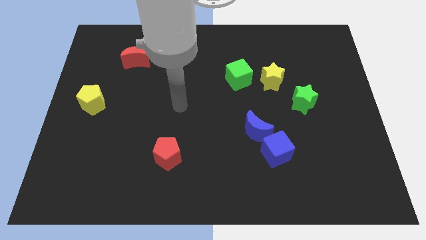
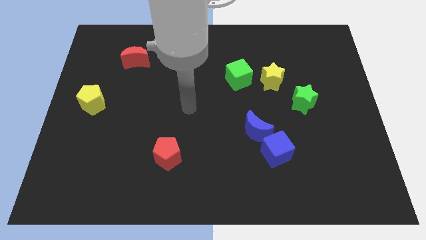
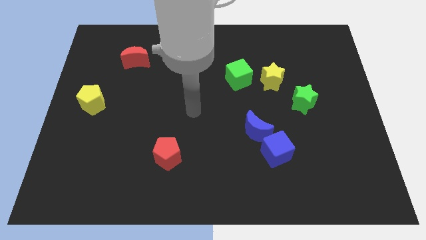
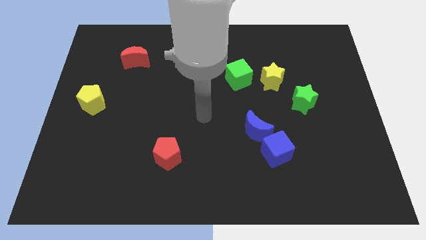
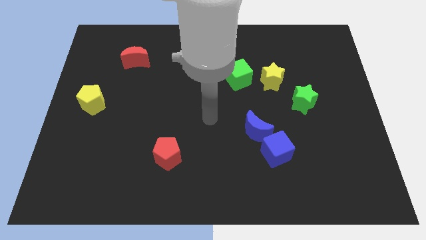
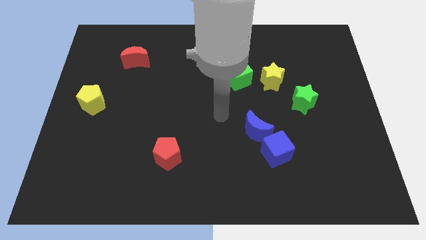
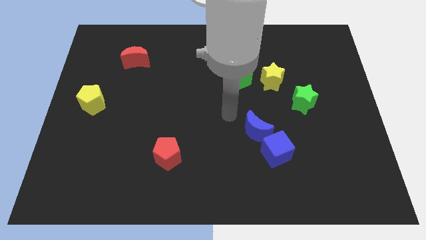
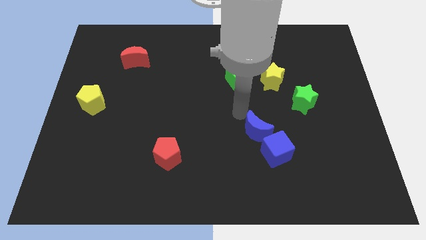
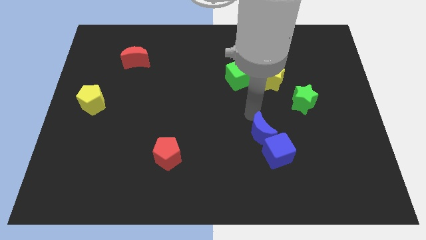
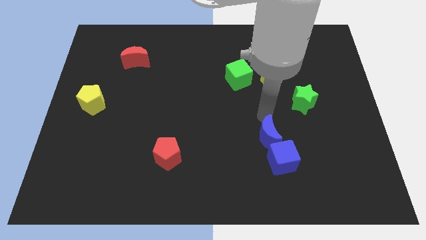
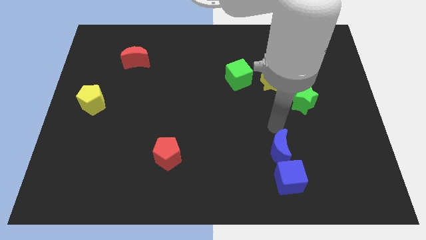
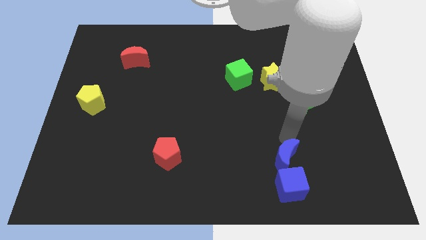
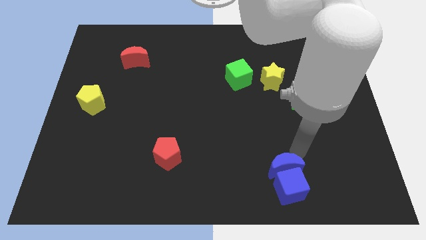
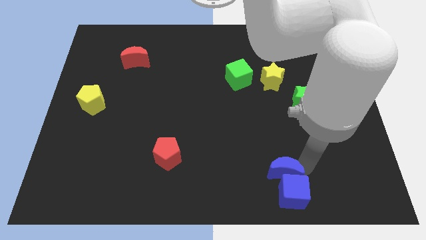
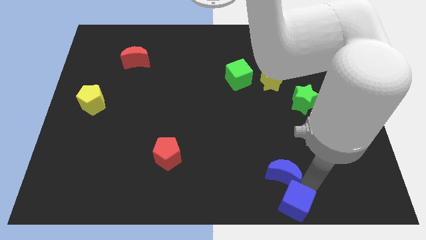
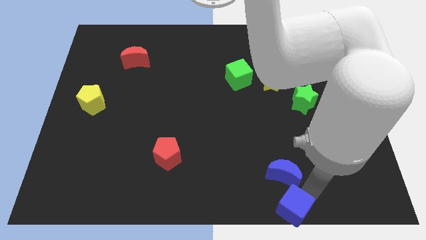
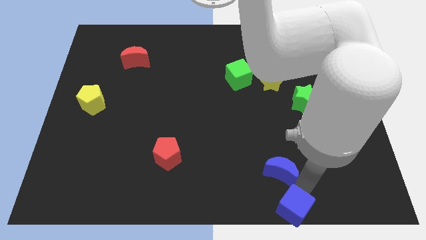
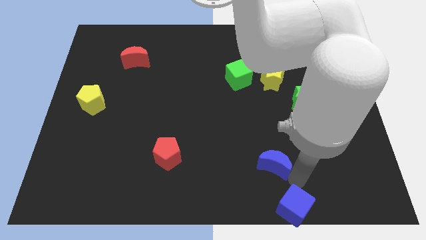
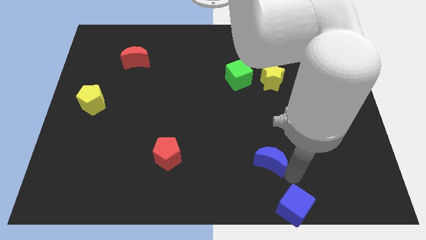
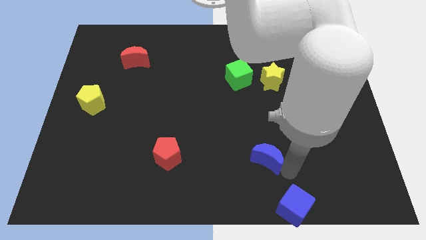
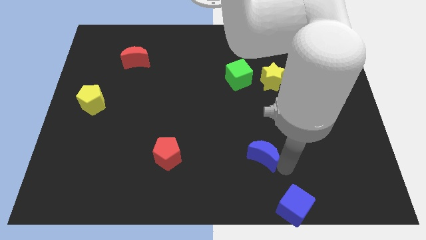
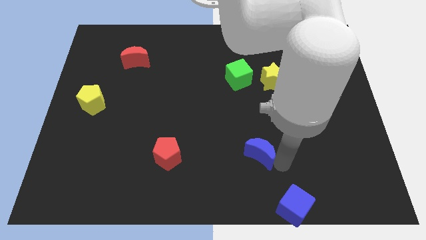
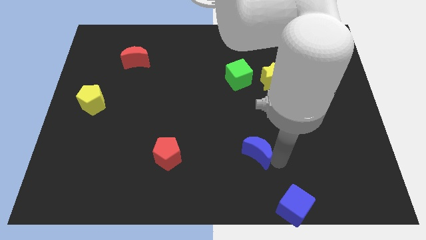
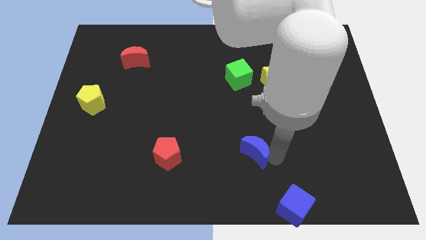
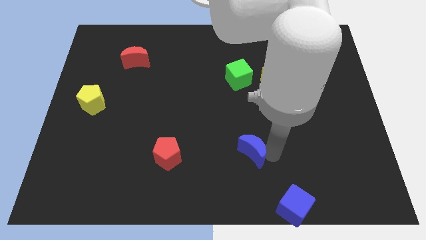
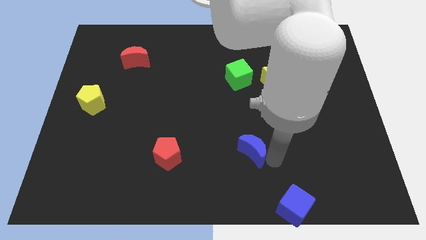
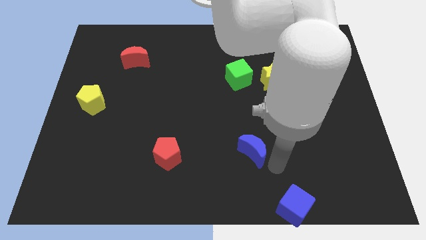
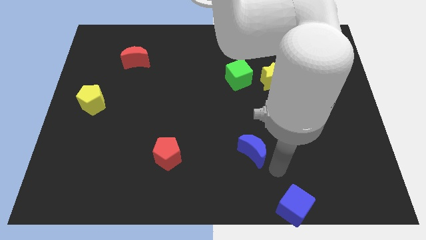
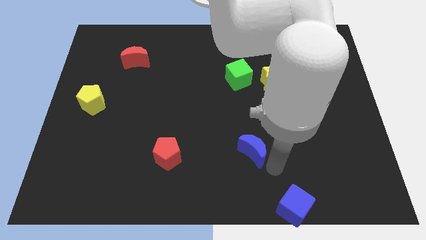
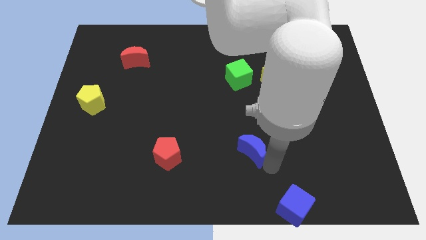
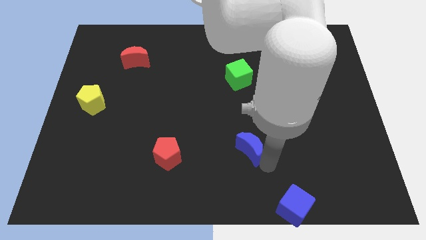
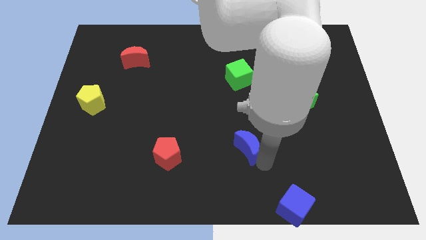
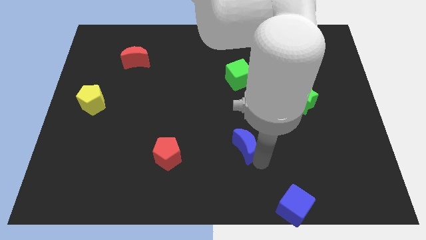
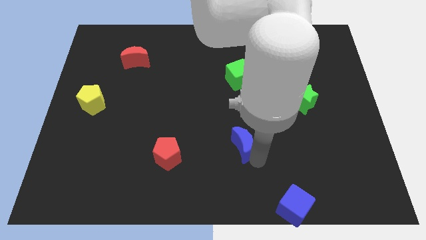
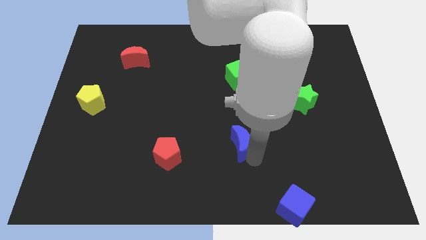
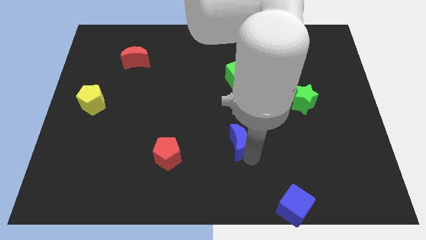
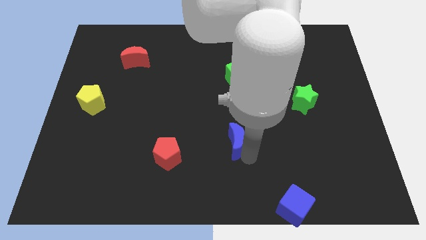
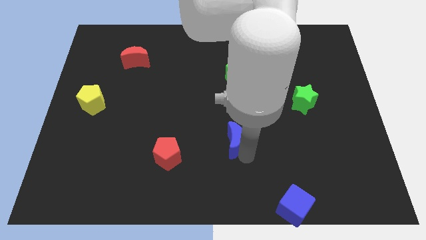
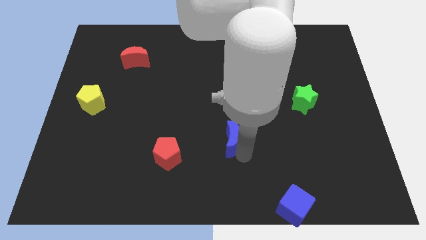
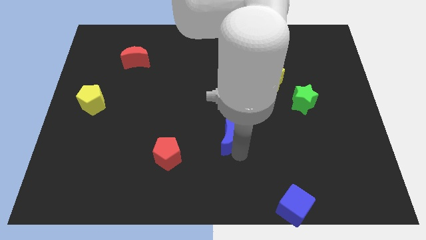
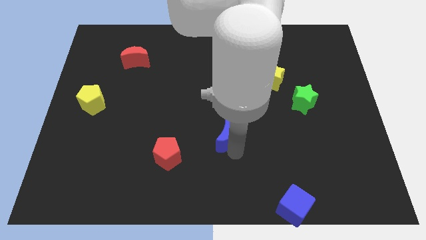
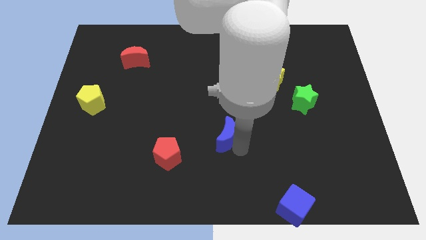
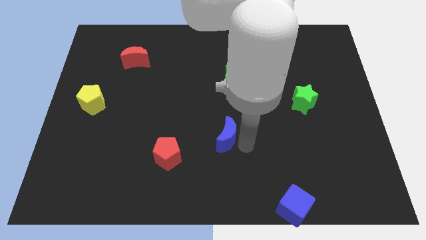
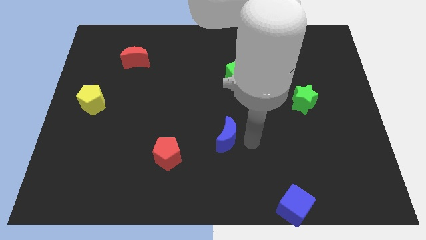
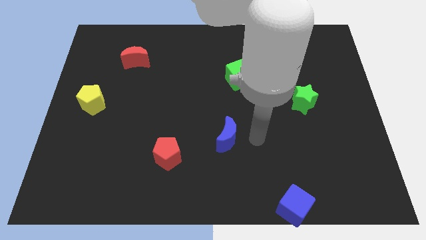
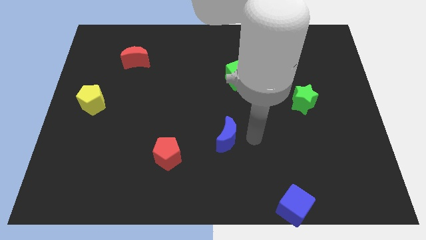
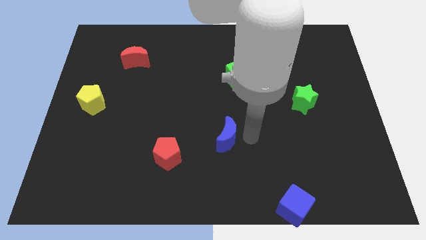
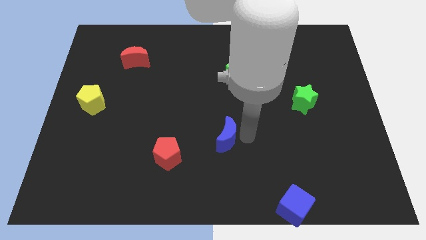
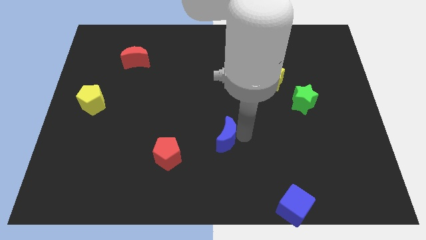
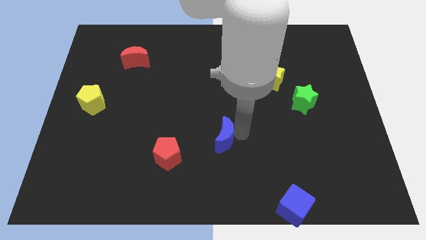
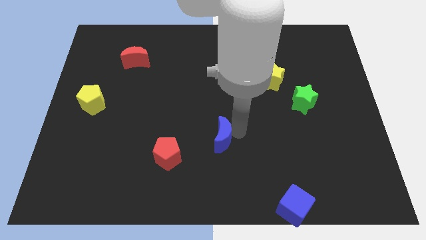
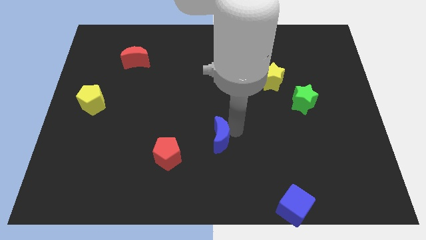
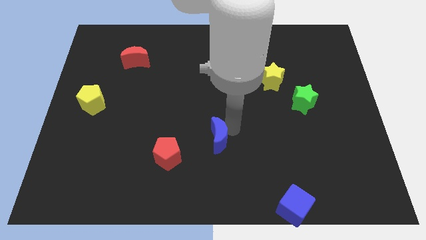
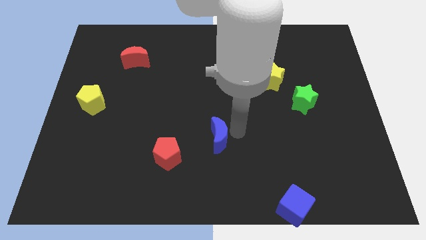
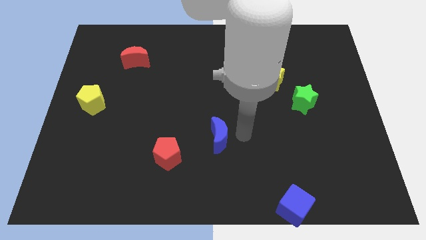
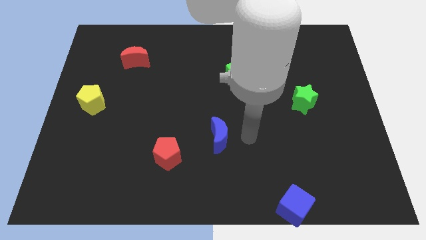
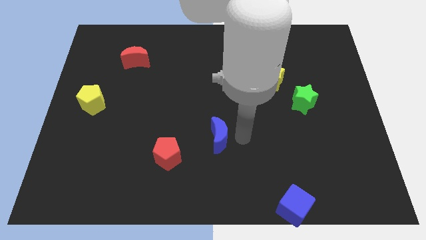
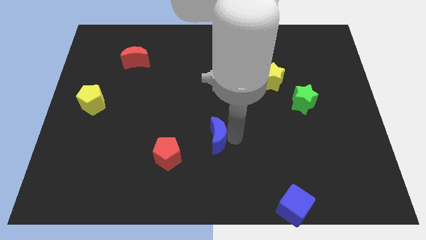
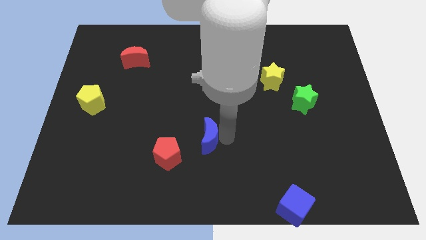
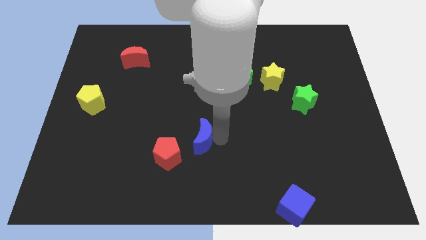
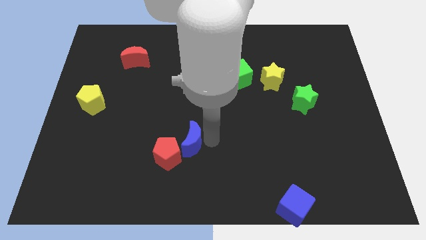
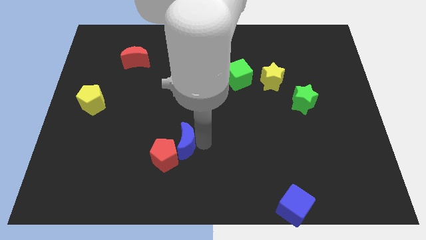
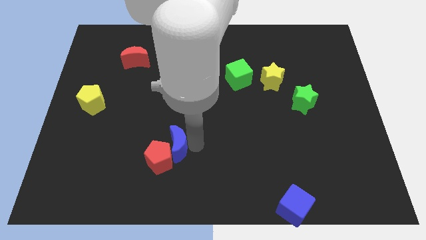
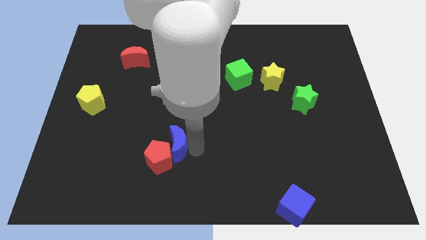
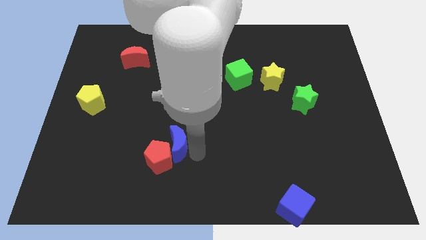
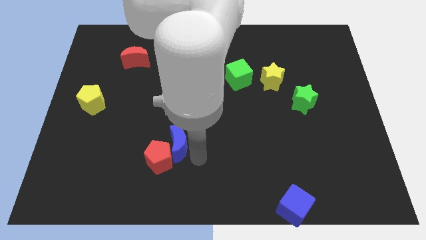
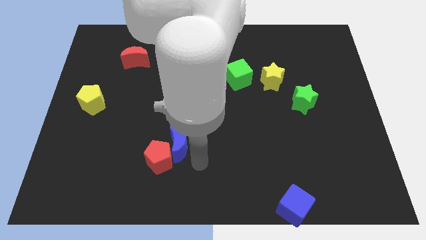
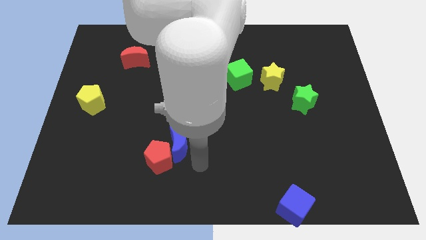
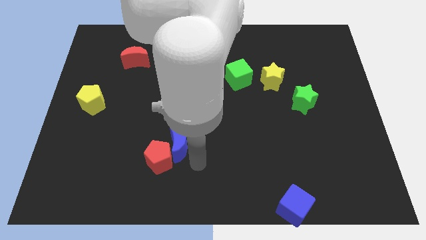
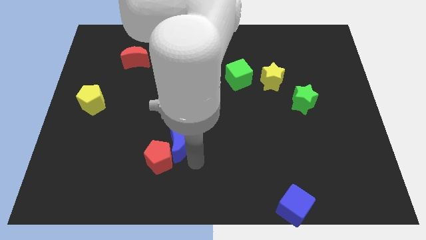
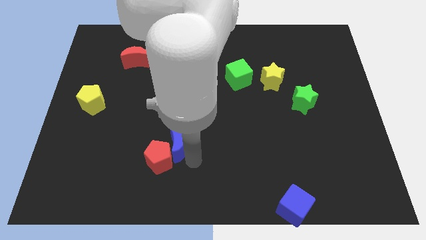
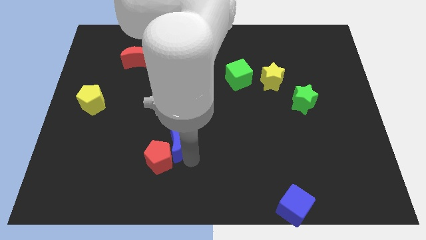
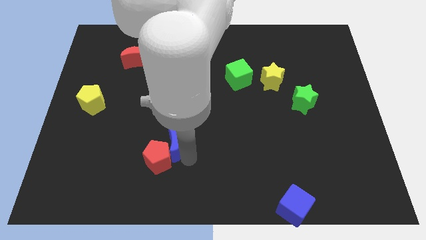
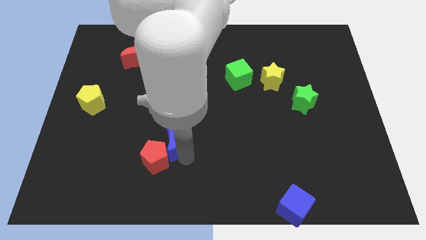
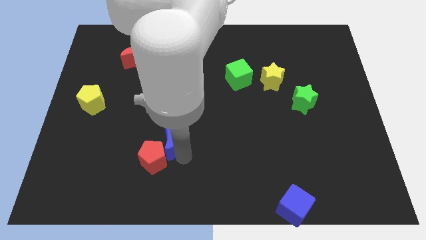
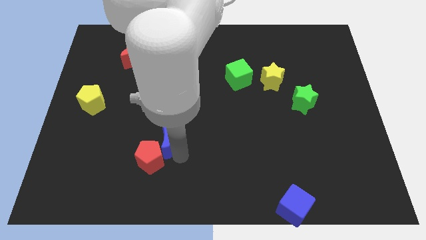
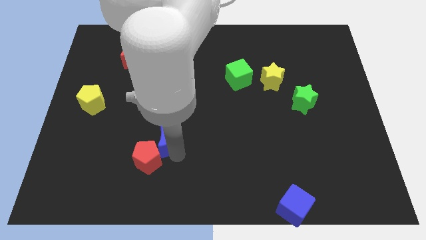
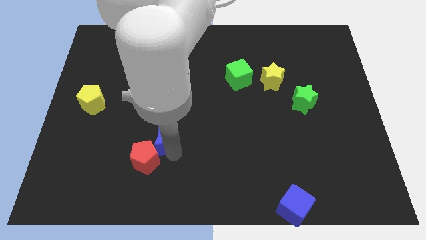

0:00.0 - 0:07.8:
slide the blue moon left

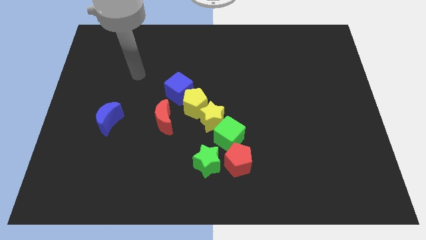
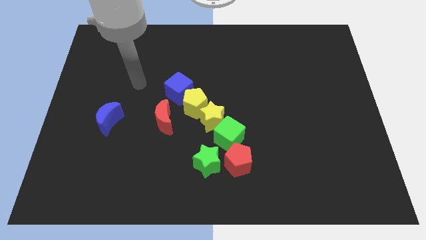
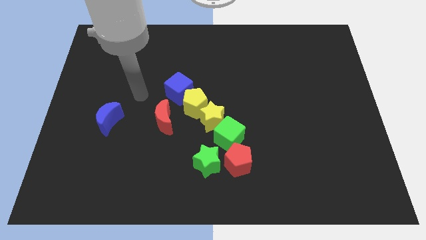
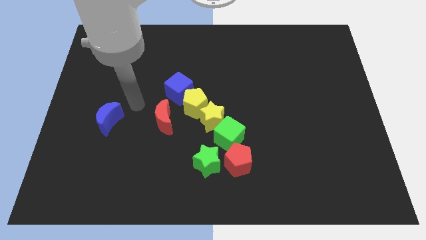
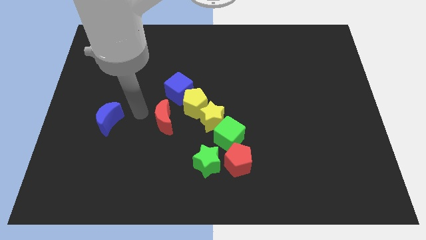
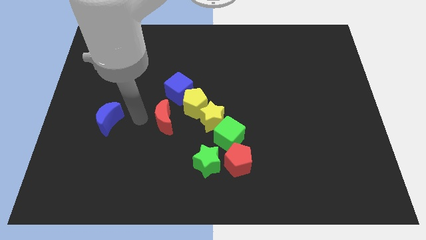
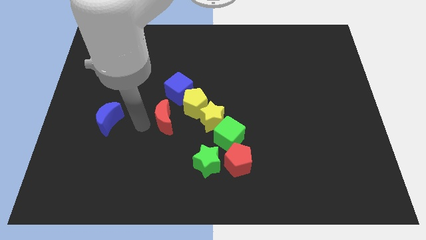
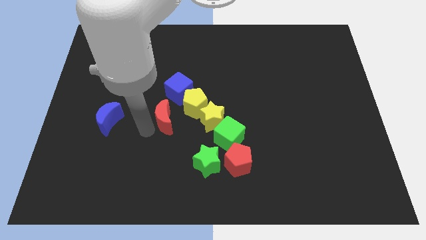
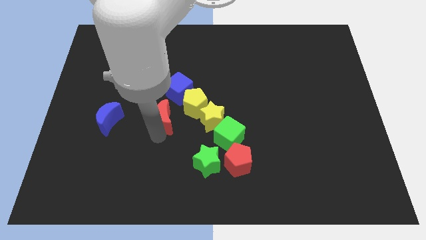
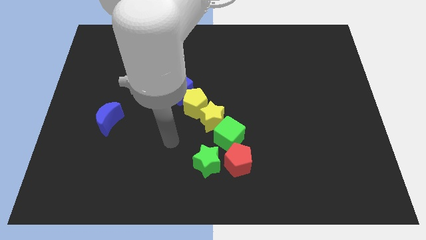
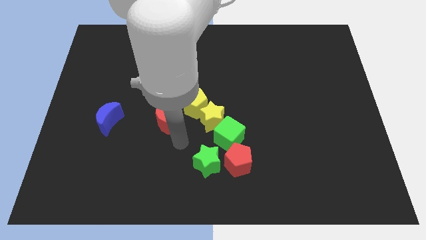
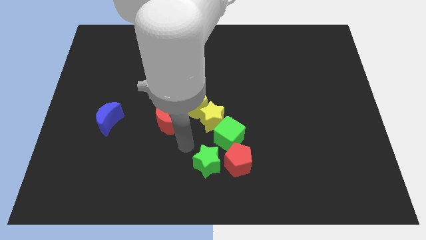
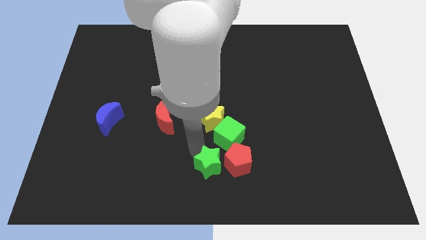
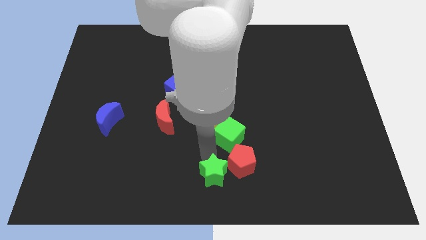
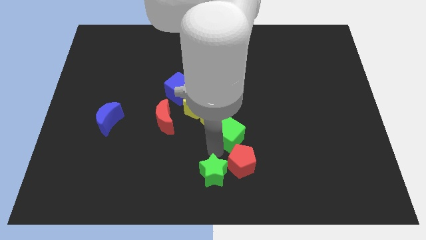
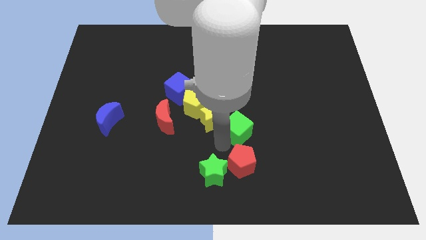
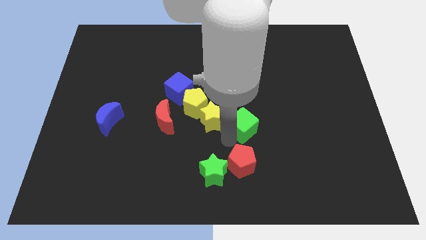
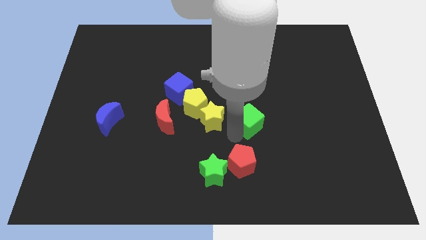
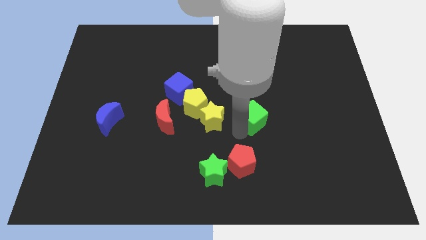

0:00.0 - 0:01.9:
slightly push the green cube up and right
